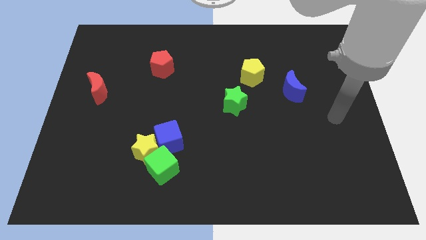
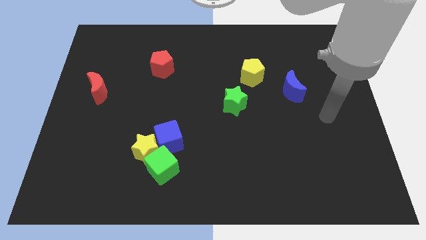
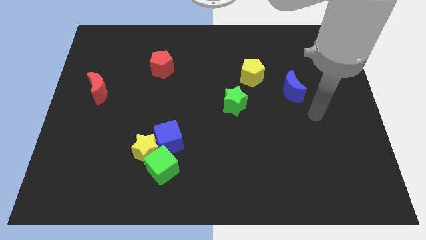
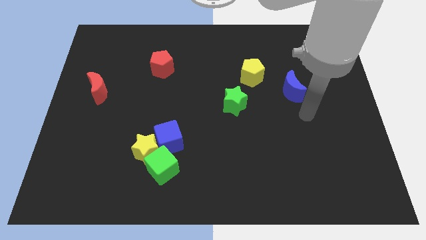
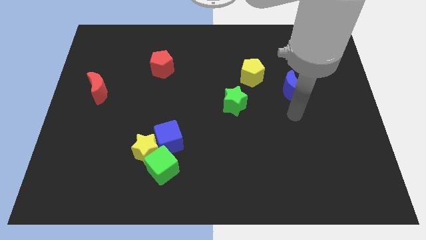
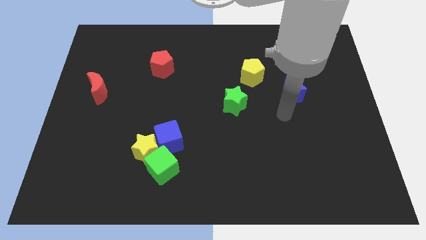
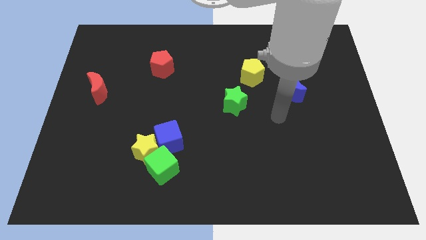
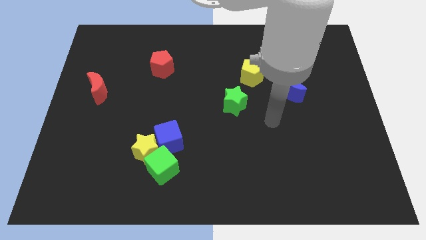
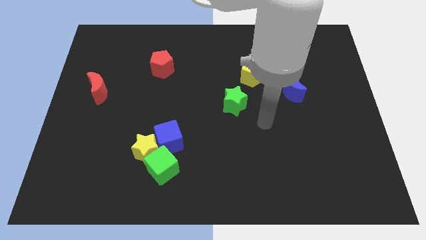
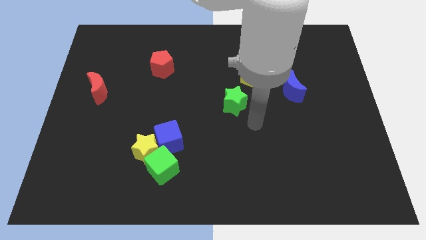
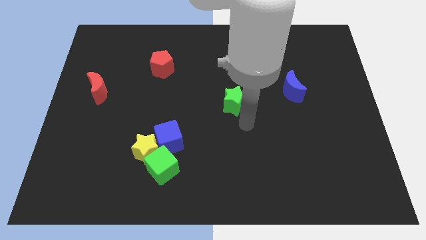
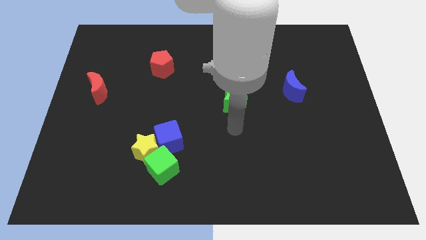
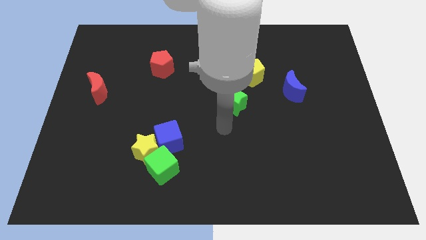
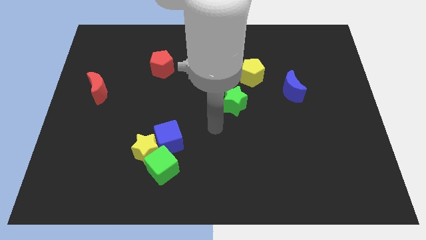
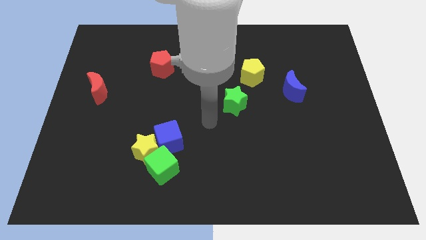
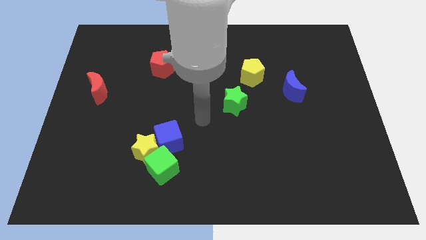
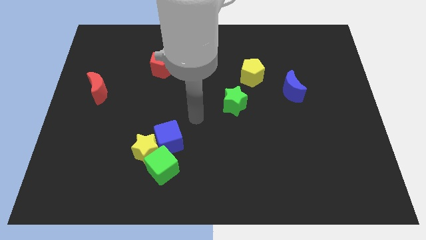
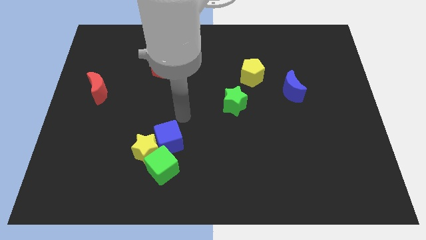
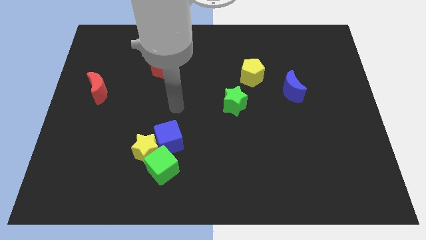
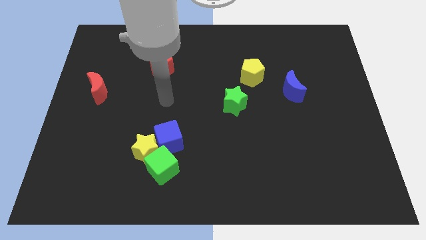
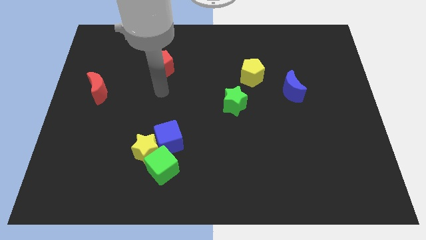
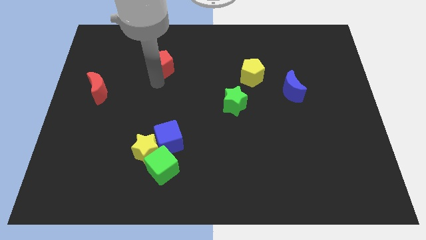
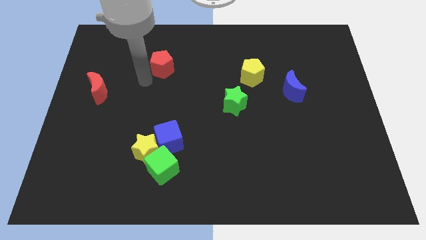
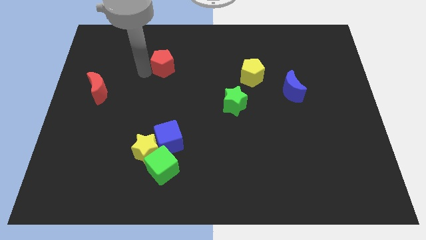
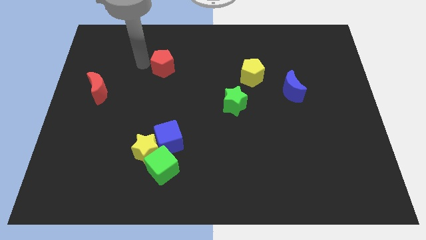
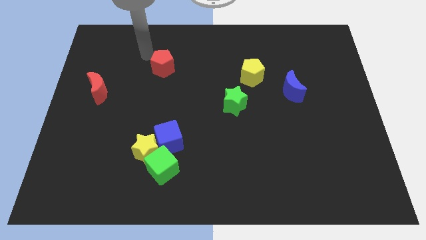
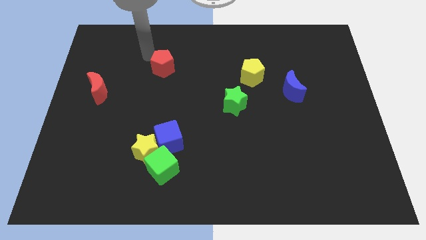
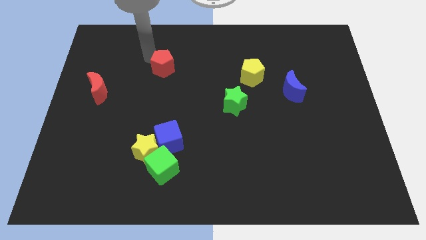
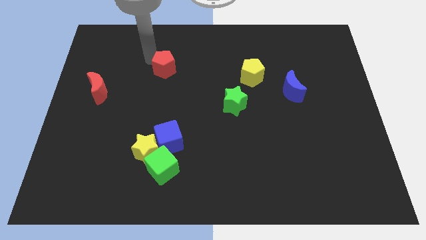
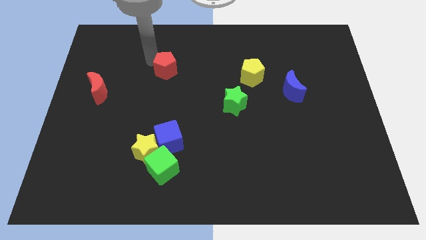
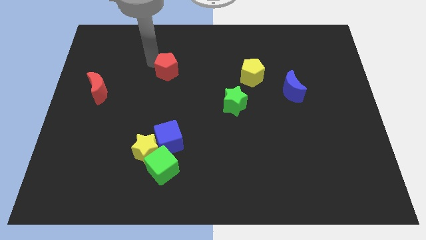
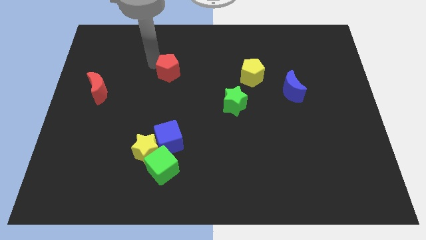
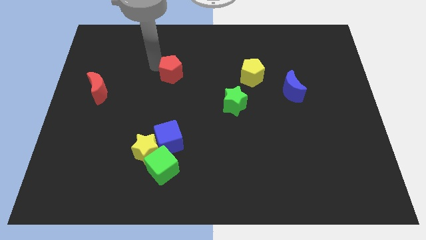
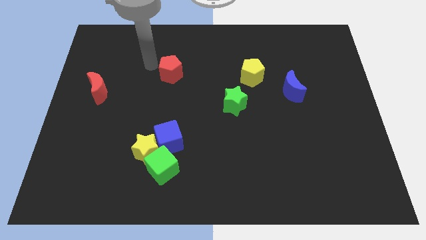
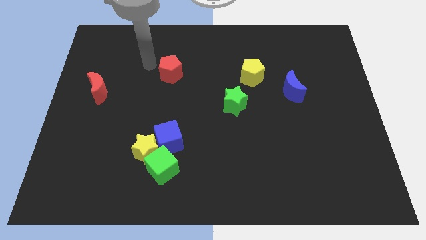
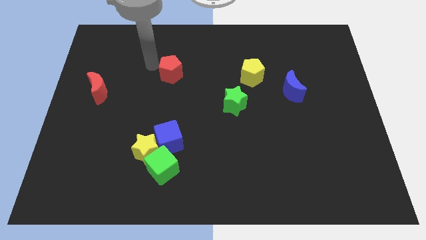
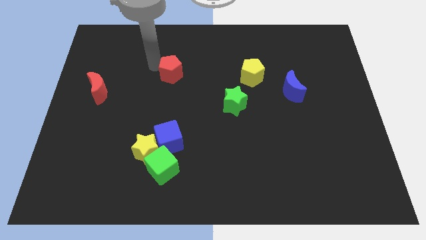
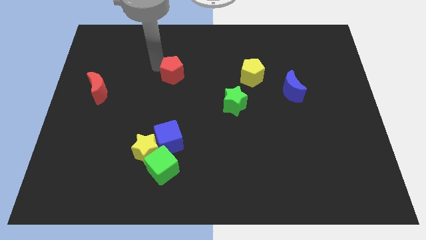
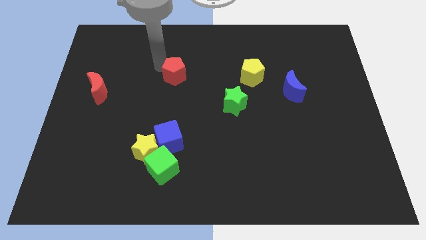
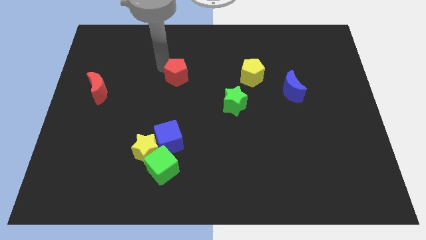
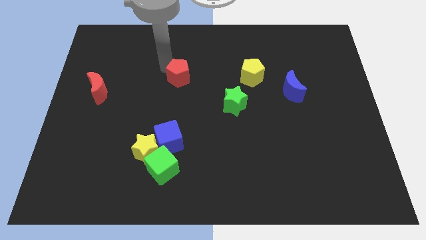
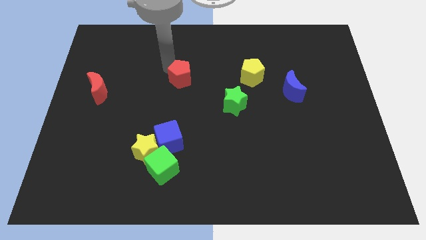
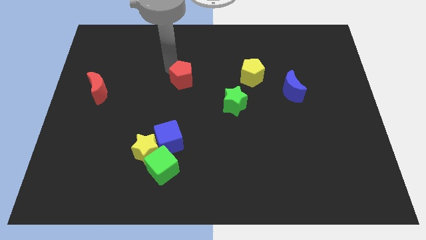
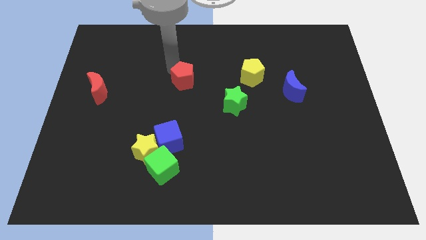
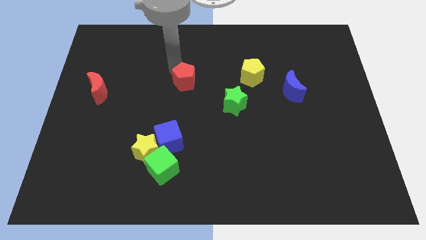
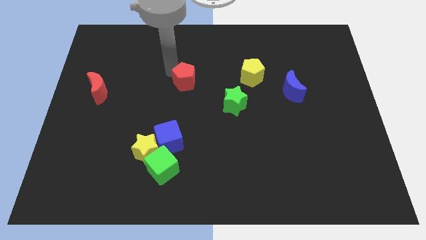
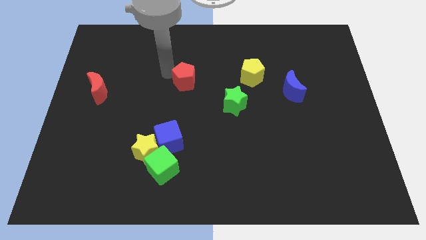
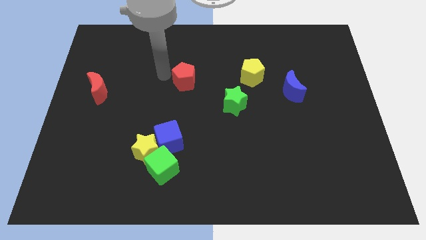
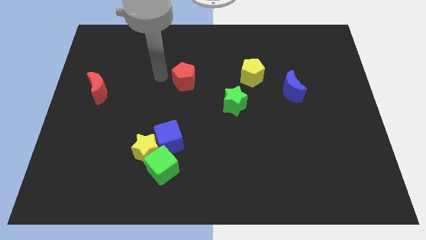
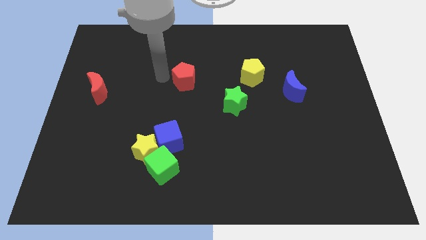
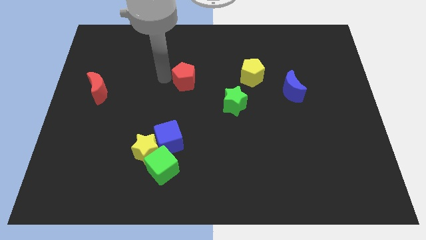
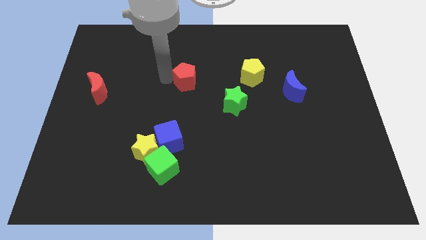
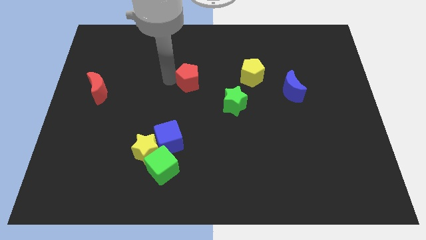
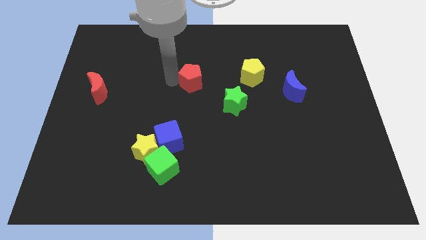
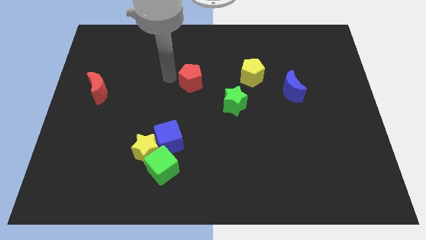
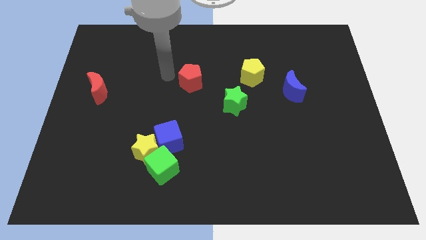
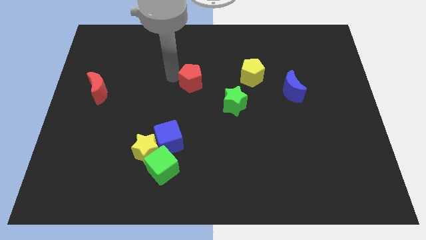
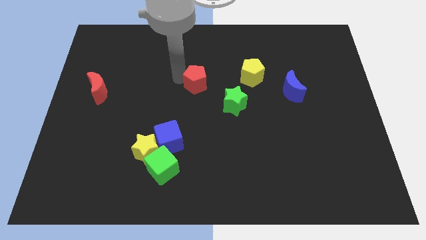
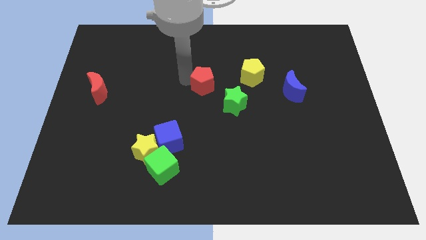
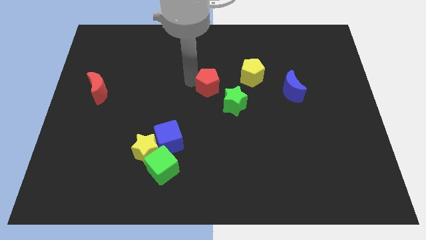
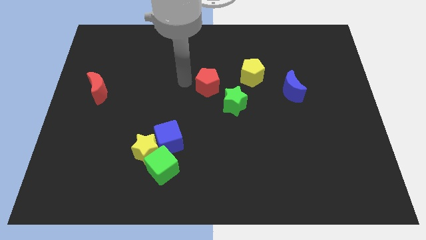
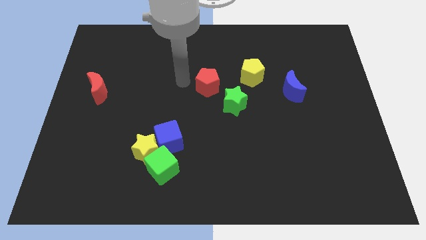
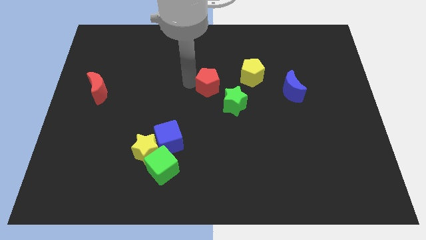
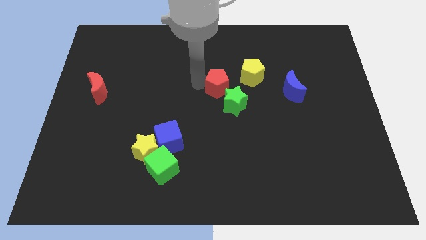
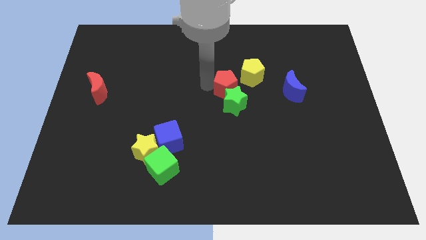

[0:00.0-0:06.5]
push the red pentagon just left of the blue moon

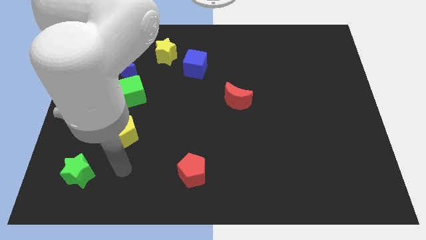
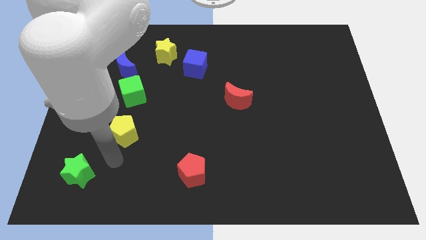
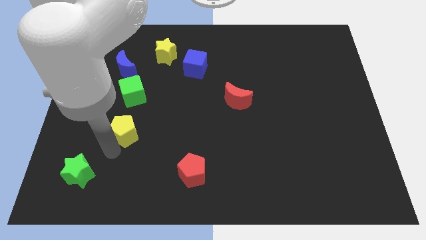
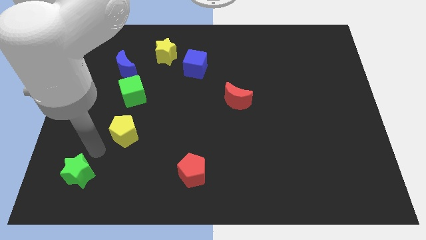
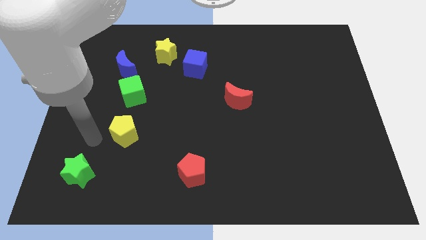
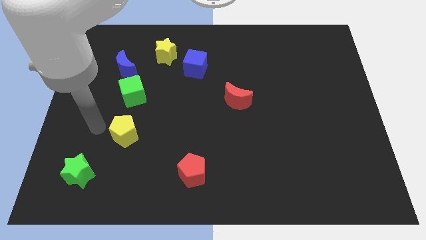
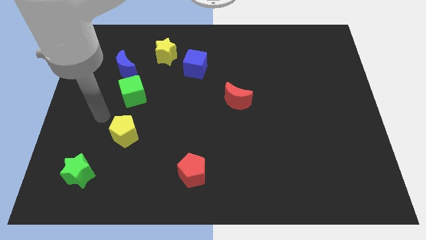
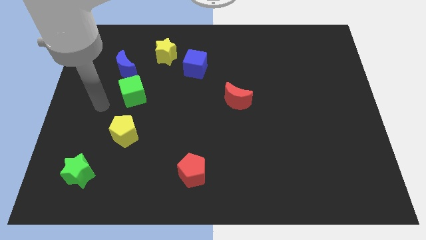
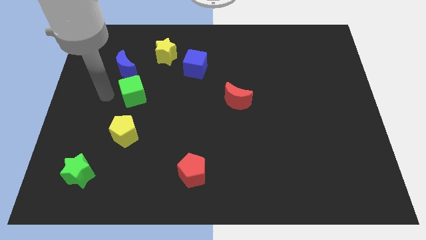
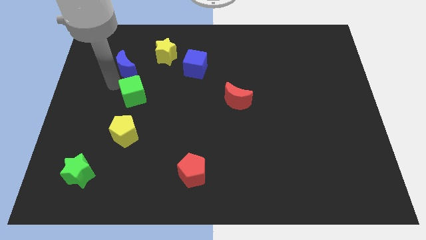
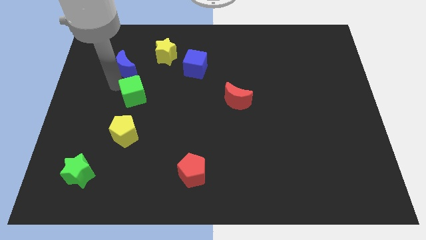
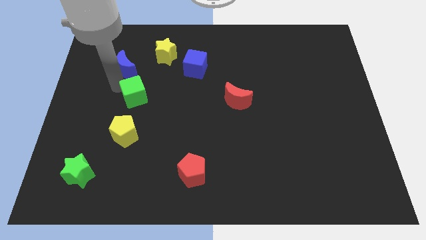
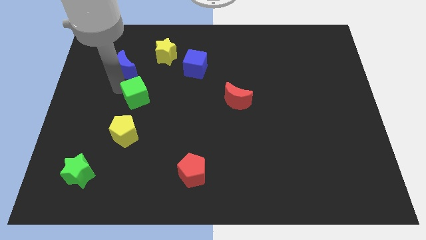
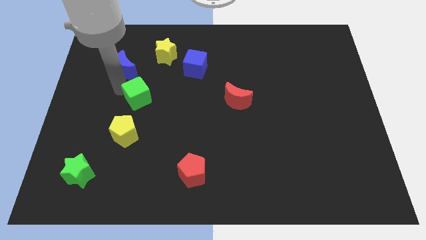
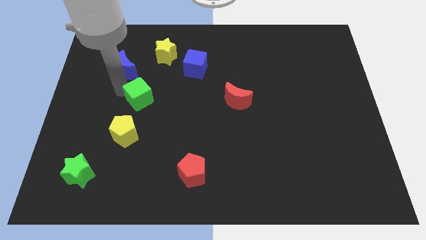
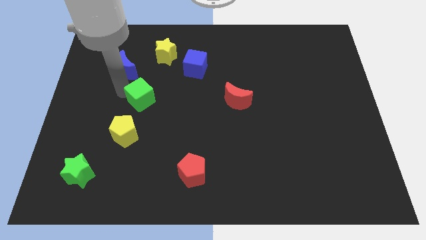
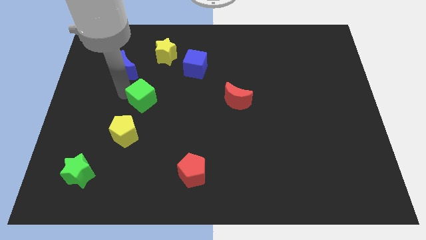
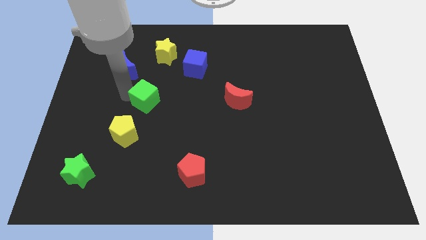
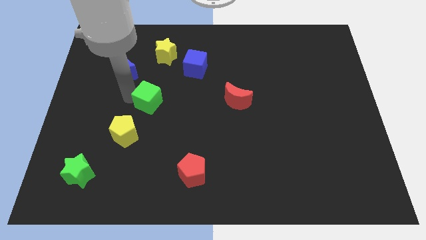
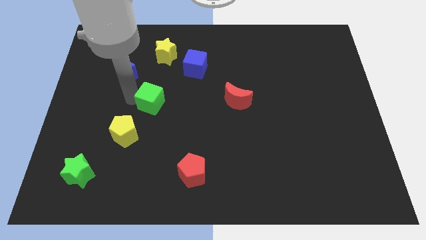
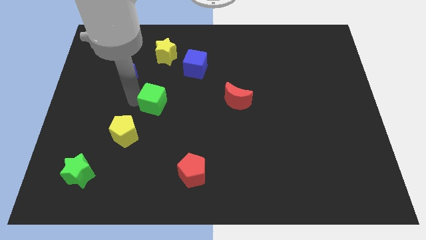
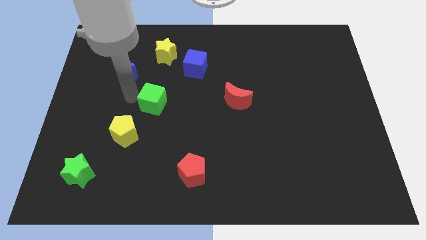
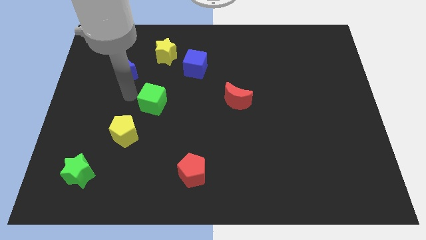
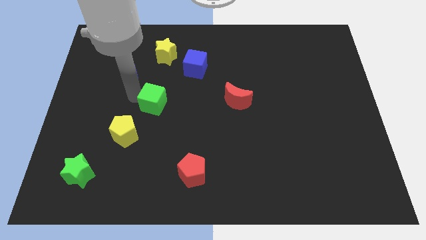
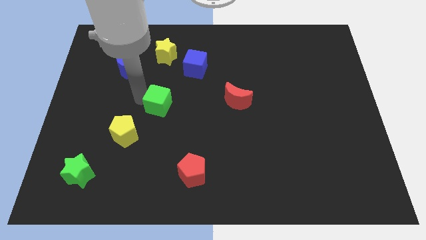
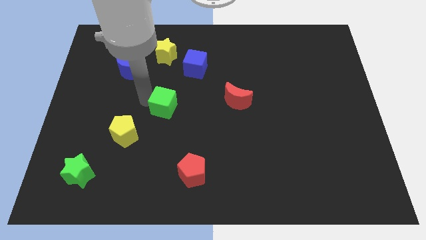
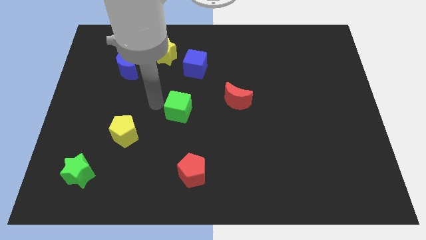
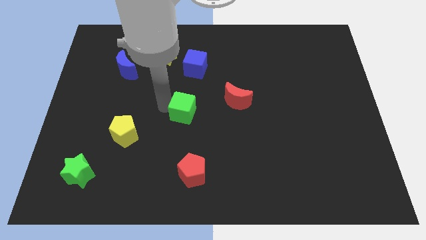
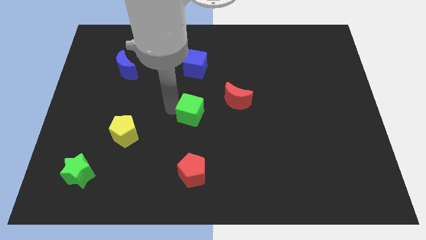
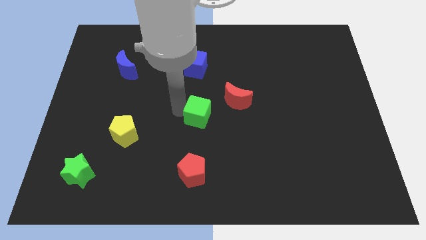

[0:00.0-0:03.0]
put the green cube diagonally down and to the left of the red moon
